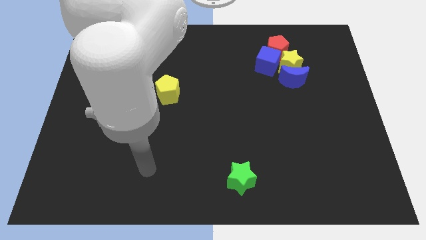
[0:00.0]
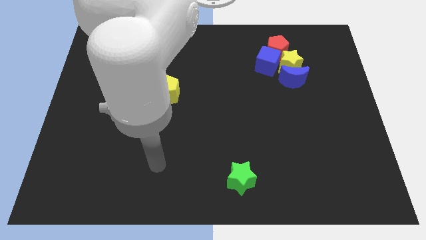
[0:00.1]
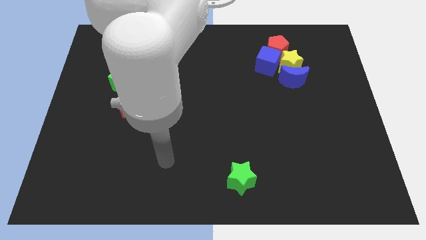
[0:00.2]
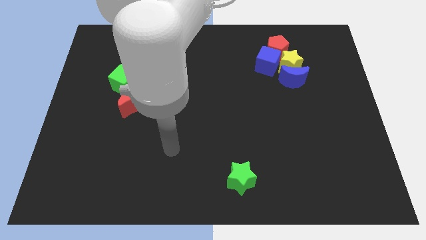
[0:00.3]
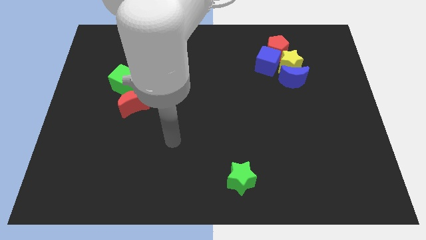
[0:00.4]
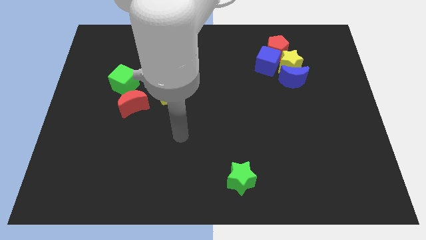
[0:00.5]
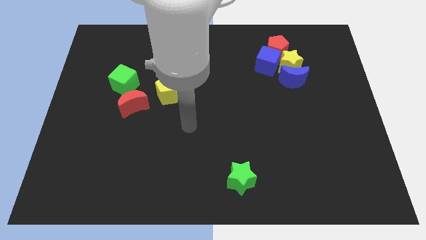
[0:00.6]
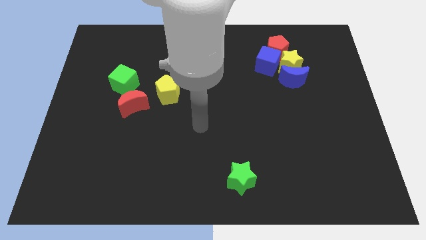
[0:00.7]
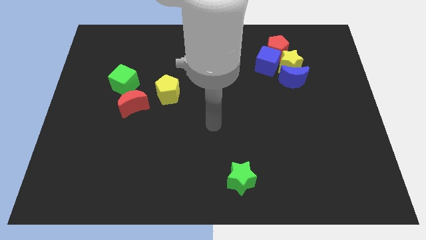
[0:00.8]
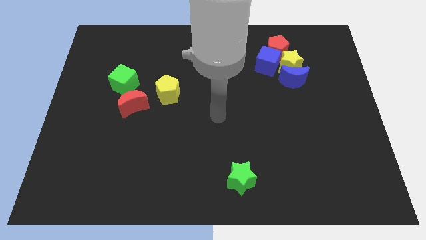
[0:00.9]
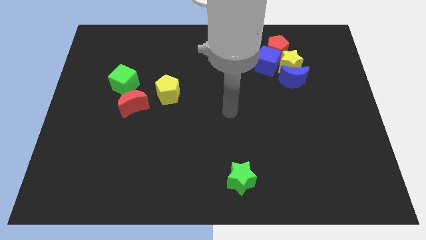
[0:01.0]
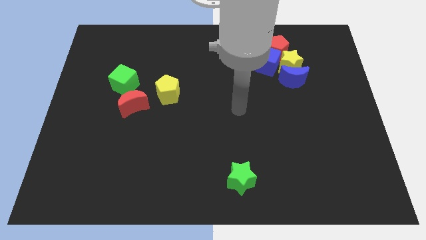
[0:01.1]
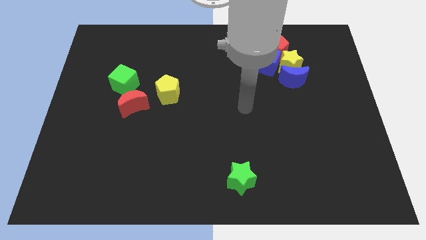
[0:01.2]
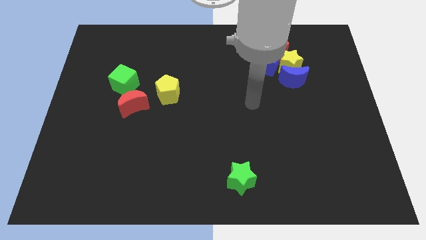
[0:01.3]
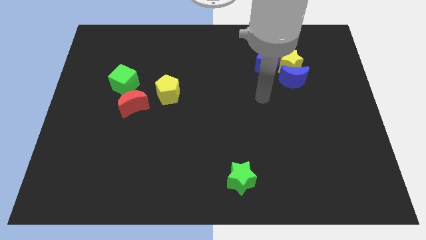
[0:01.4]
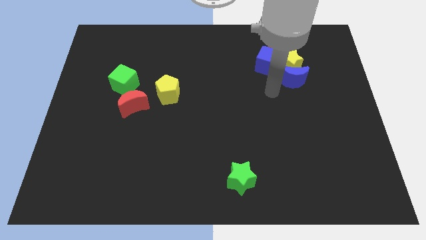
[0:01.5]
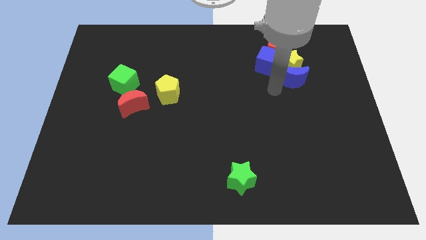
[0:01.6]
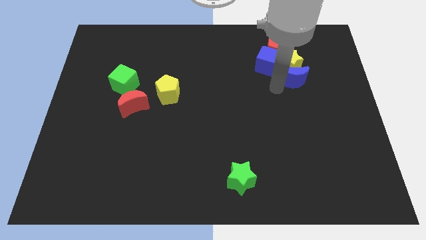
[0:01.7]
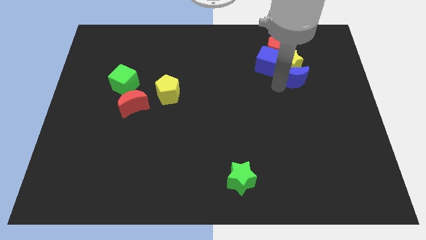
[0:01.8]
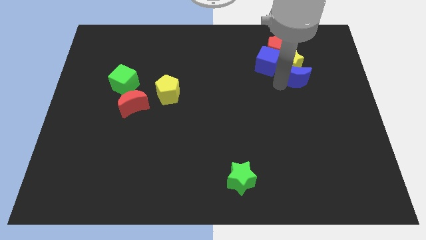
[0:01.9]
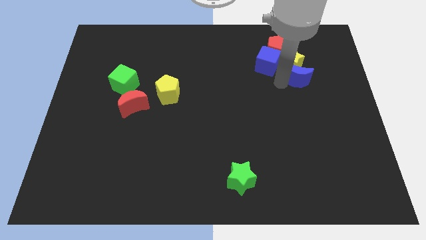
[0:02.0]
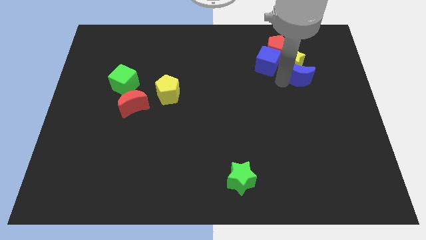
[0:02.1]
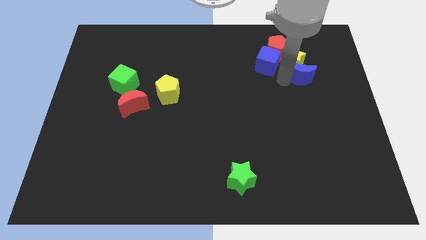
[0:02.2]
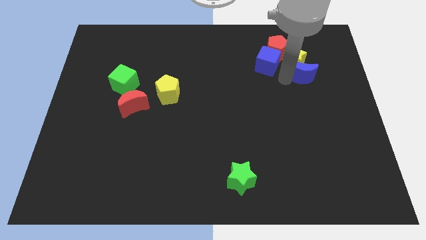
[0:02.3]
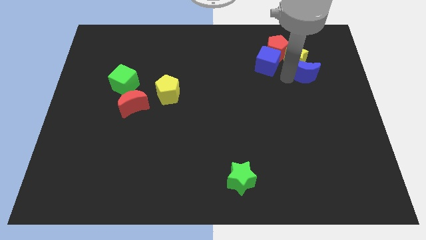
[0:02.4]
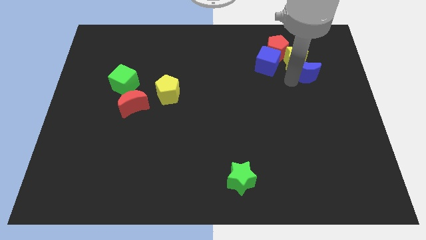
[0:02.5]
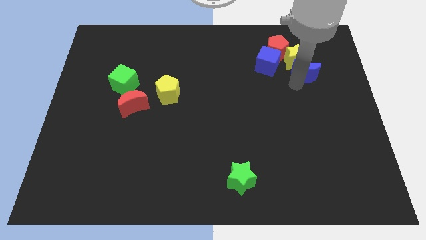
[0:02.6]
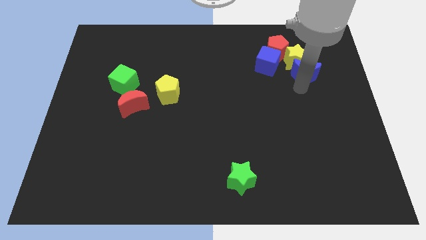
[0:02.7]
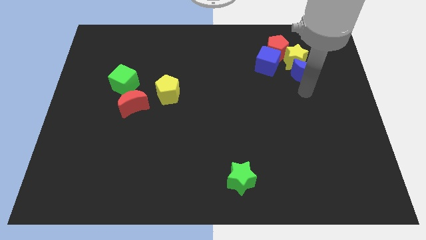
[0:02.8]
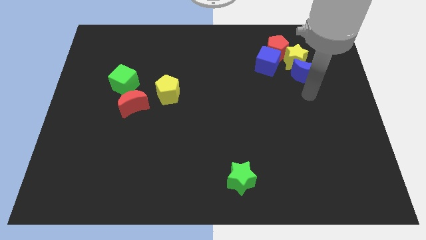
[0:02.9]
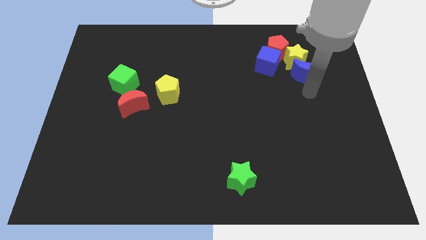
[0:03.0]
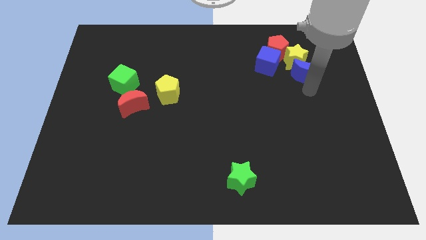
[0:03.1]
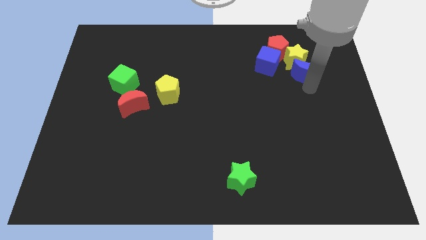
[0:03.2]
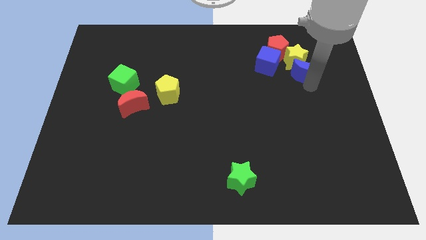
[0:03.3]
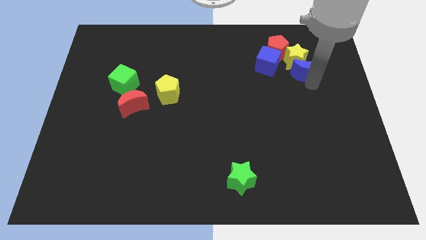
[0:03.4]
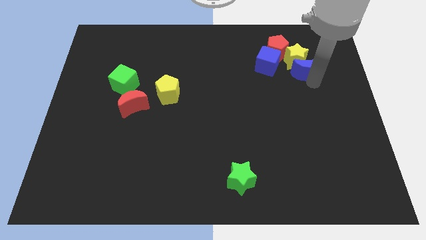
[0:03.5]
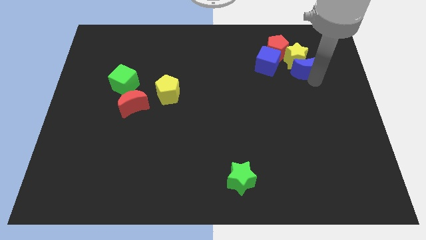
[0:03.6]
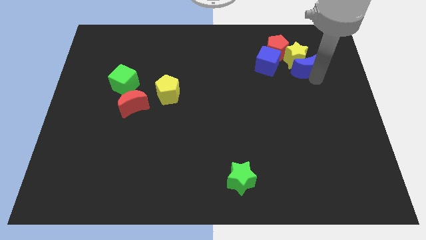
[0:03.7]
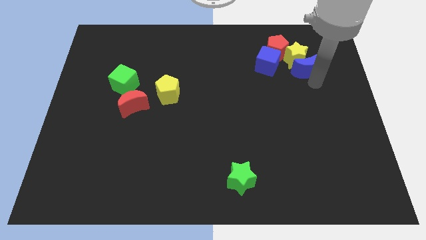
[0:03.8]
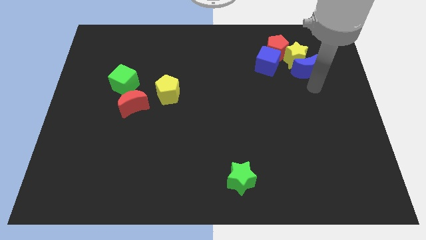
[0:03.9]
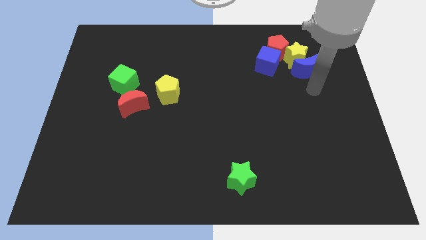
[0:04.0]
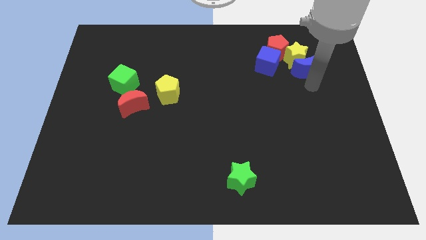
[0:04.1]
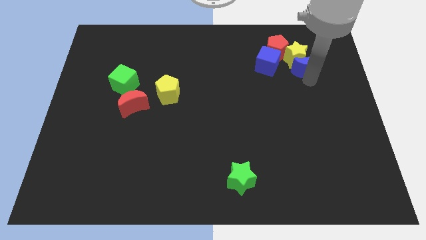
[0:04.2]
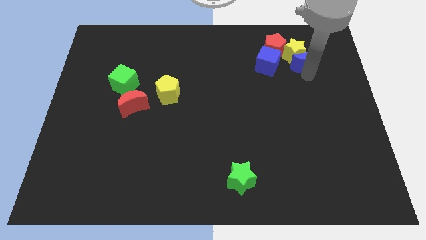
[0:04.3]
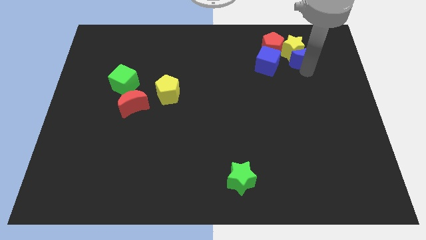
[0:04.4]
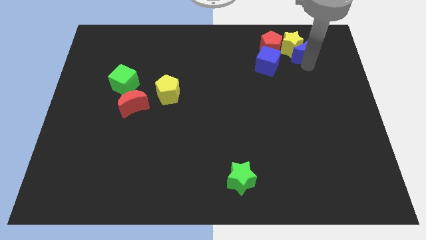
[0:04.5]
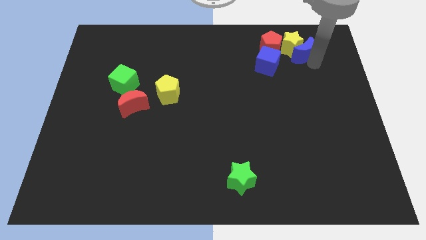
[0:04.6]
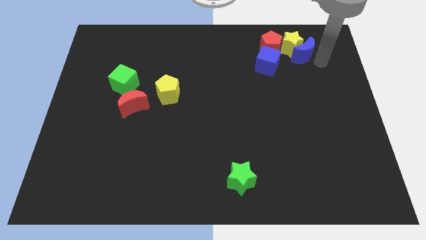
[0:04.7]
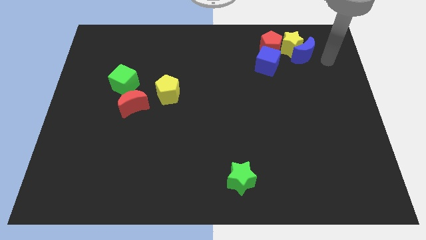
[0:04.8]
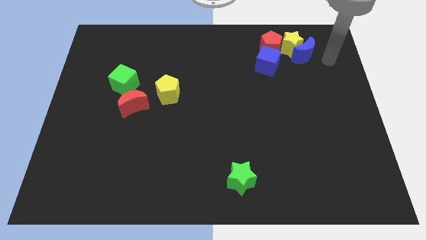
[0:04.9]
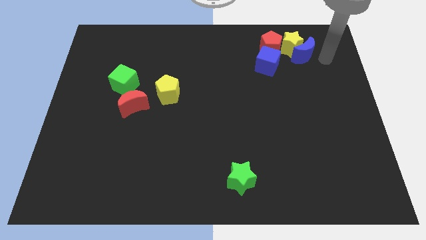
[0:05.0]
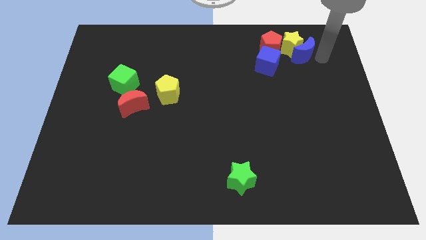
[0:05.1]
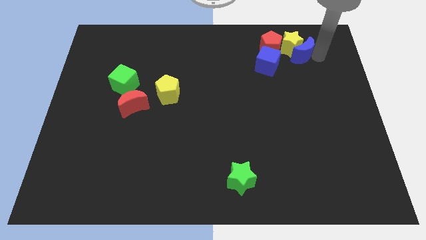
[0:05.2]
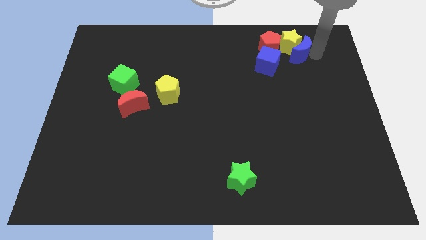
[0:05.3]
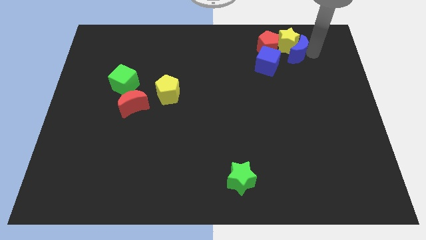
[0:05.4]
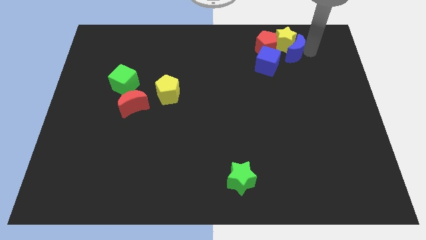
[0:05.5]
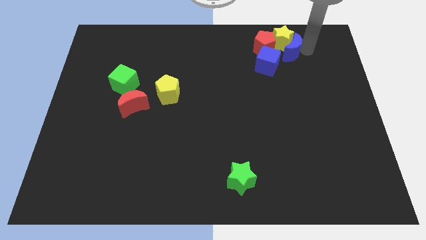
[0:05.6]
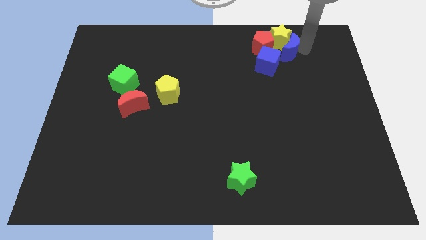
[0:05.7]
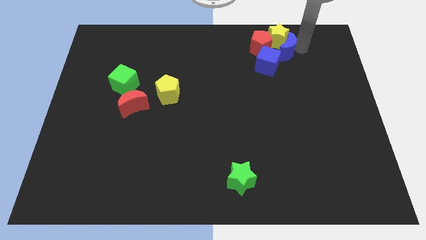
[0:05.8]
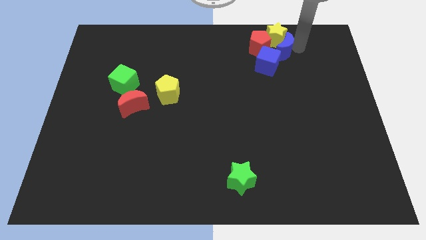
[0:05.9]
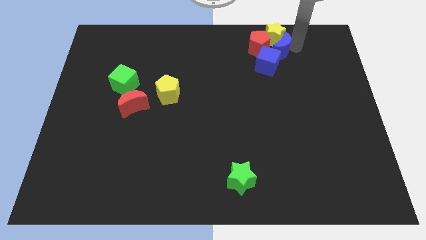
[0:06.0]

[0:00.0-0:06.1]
put the blue moon next to the red pentagon

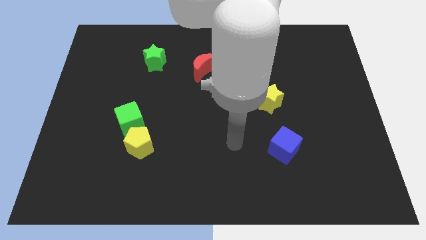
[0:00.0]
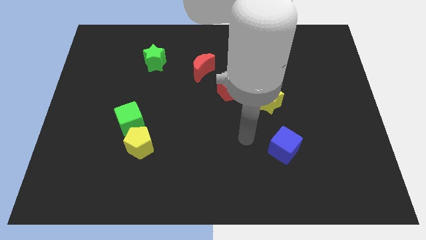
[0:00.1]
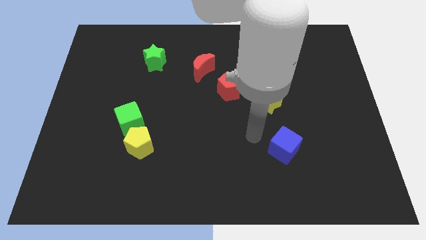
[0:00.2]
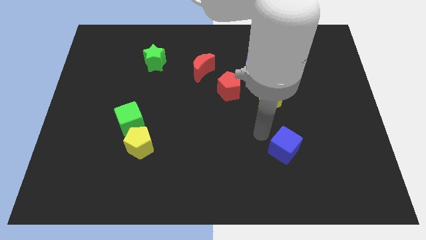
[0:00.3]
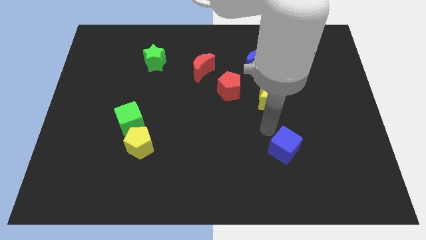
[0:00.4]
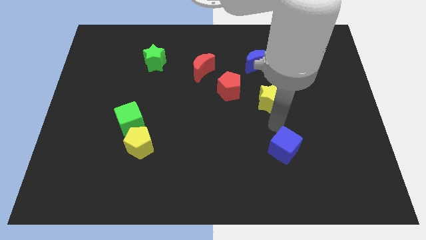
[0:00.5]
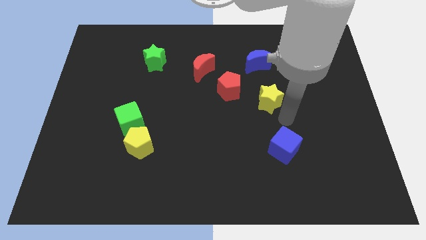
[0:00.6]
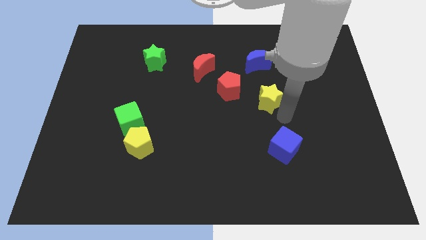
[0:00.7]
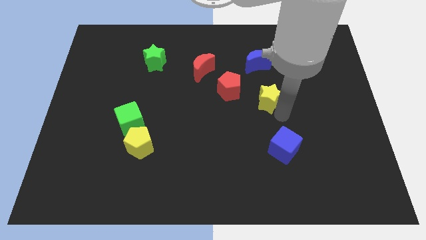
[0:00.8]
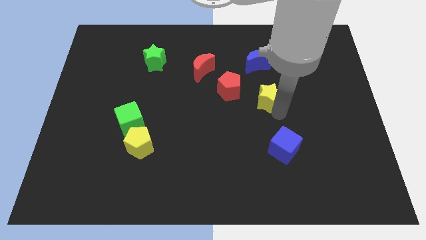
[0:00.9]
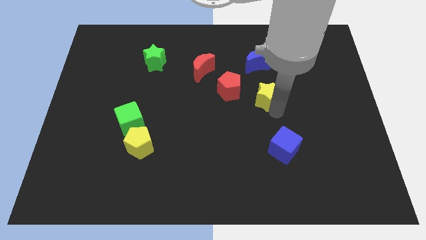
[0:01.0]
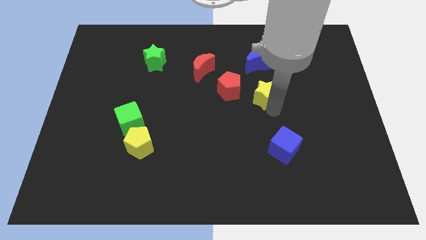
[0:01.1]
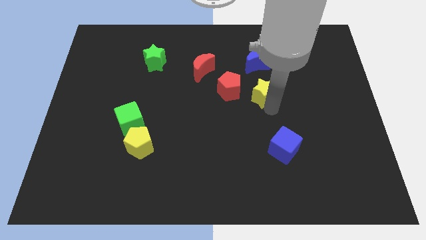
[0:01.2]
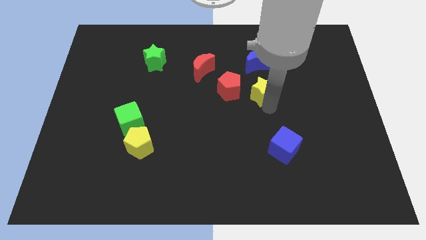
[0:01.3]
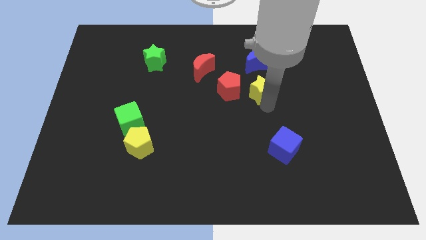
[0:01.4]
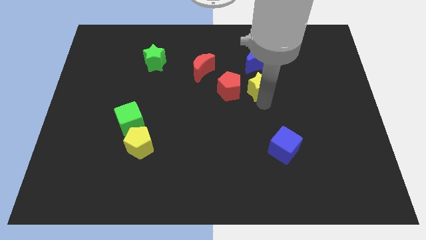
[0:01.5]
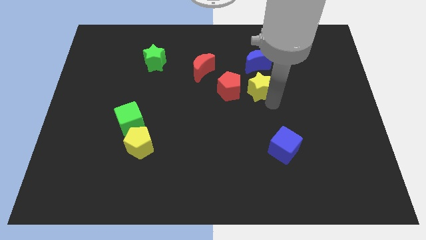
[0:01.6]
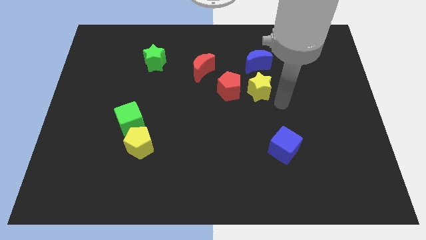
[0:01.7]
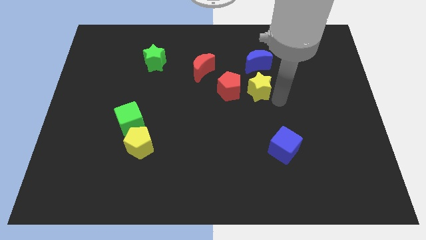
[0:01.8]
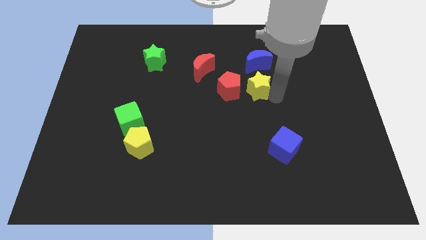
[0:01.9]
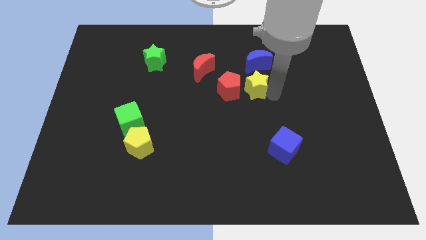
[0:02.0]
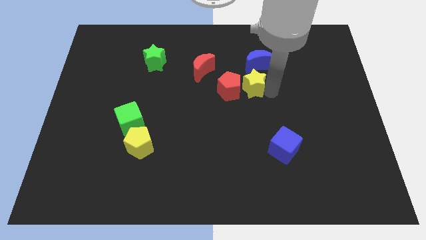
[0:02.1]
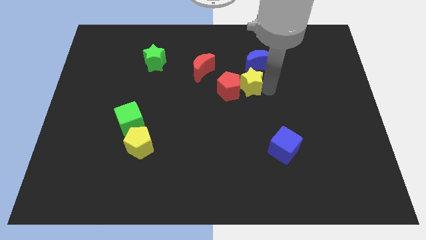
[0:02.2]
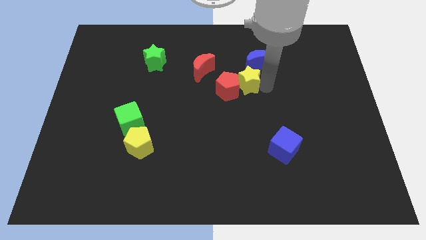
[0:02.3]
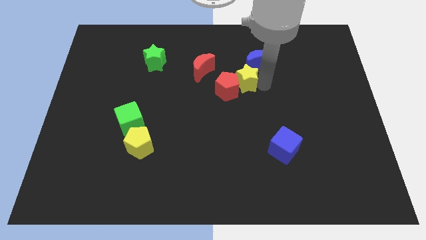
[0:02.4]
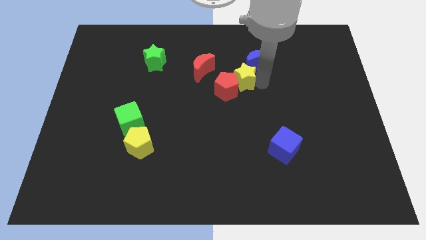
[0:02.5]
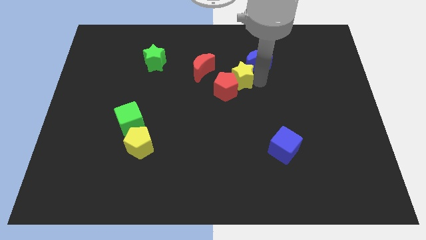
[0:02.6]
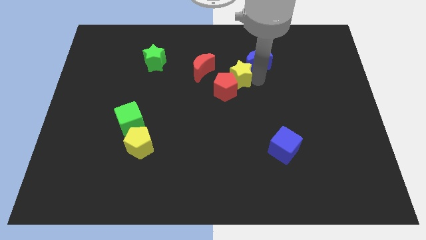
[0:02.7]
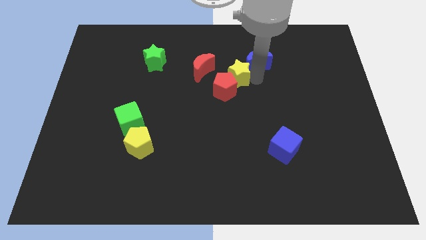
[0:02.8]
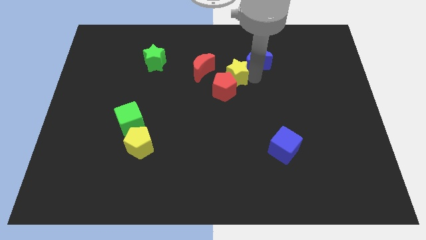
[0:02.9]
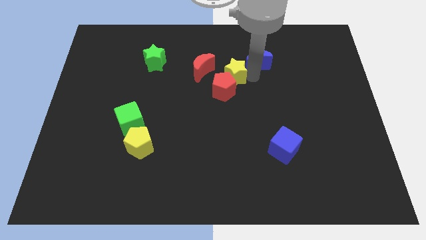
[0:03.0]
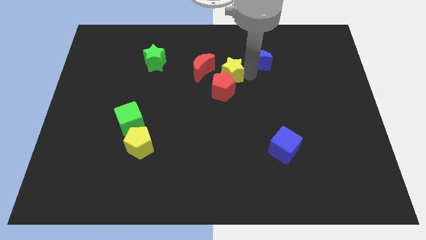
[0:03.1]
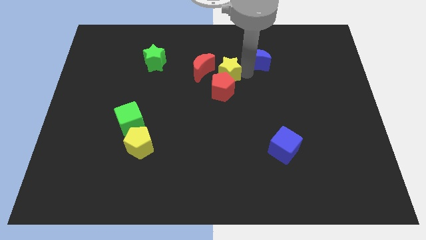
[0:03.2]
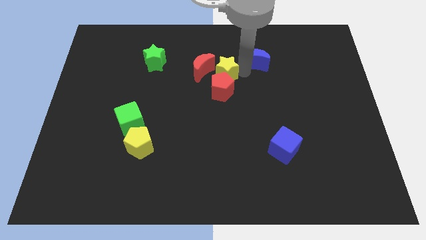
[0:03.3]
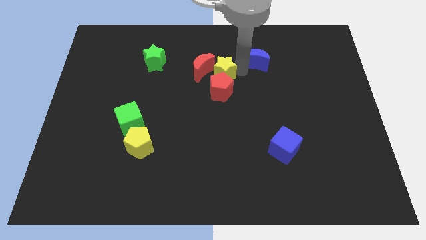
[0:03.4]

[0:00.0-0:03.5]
move the yellow star towards the red moon
